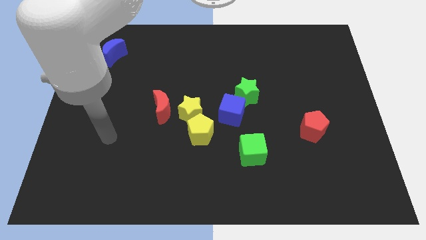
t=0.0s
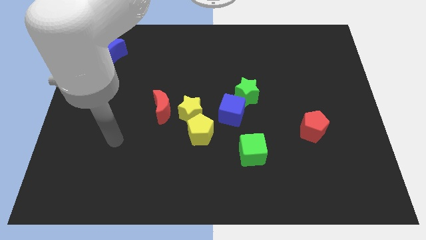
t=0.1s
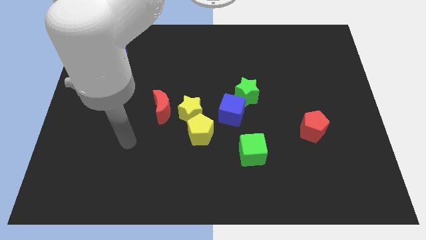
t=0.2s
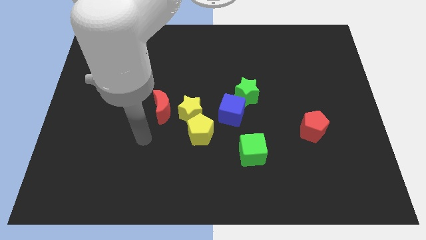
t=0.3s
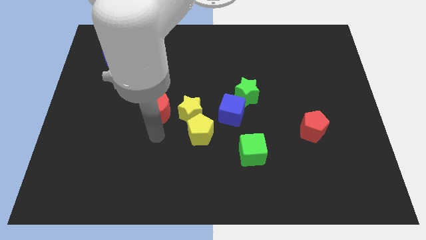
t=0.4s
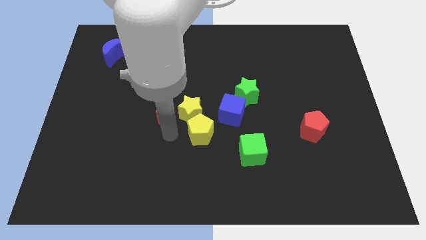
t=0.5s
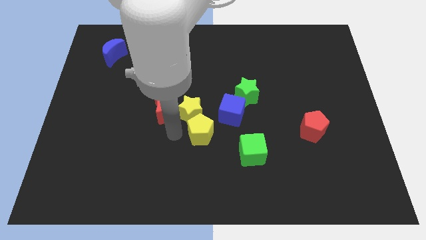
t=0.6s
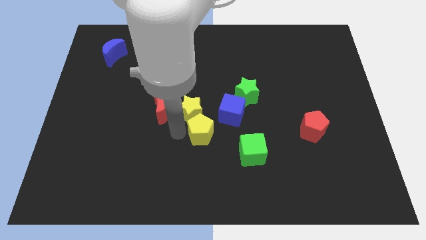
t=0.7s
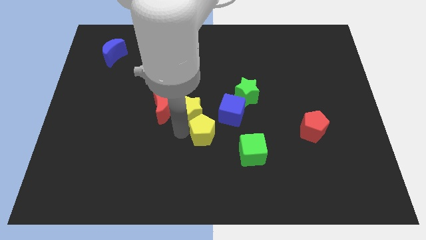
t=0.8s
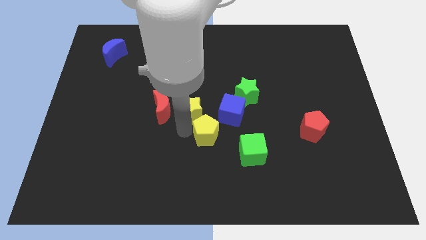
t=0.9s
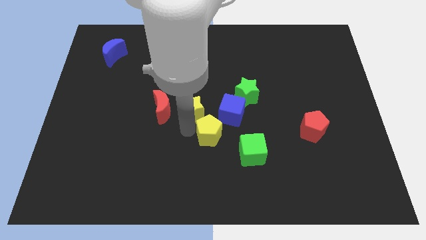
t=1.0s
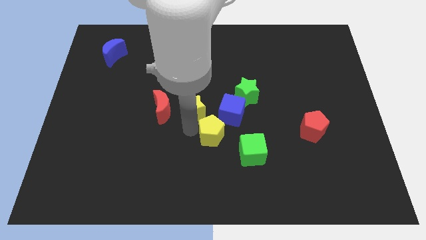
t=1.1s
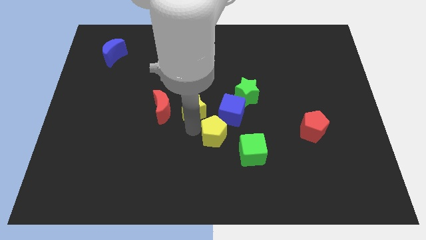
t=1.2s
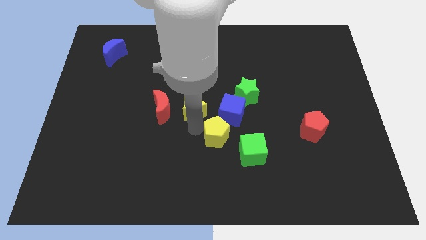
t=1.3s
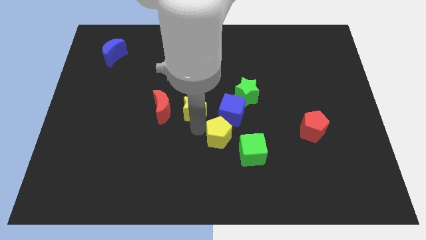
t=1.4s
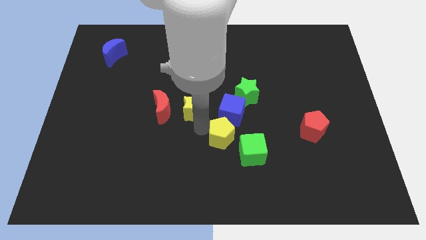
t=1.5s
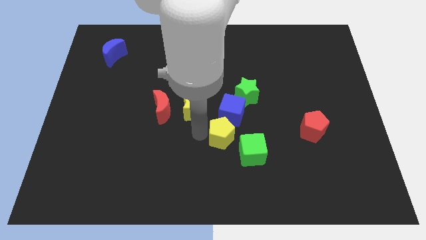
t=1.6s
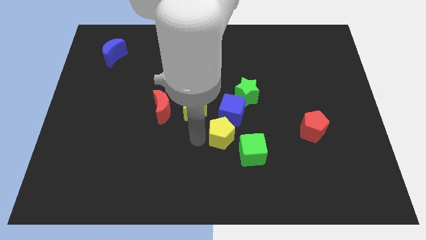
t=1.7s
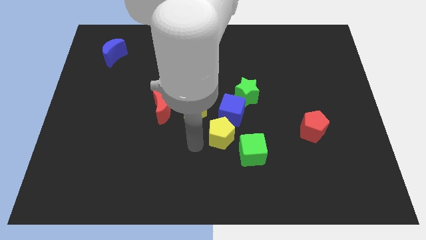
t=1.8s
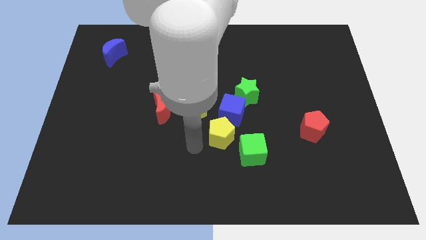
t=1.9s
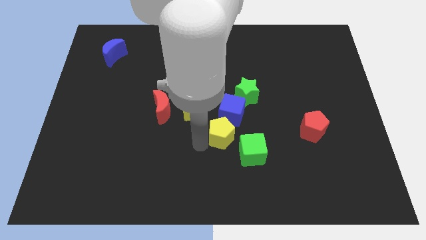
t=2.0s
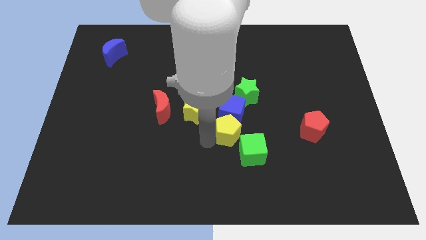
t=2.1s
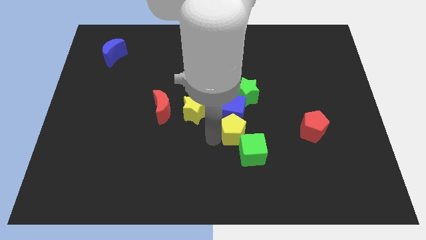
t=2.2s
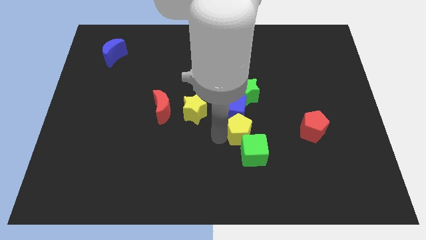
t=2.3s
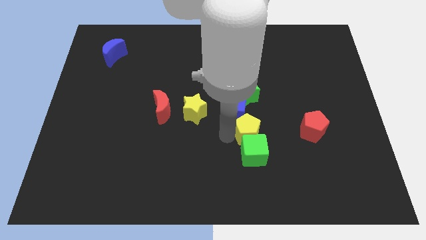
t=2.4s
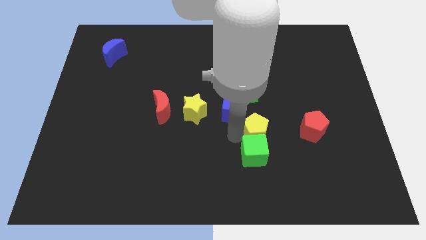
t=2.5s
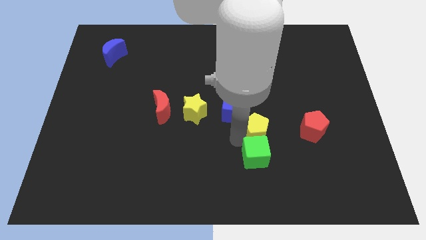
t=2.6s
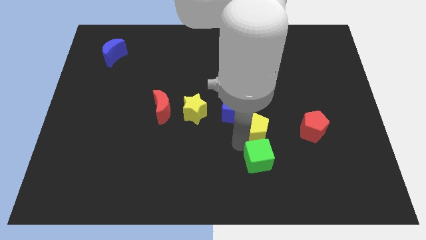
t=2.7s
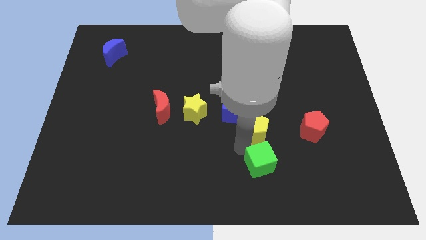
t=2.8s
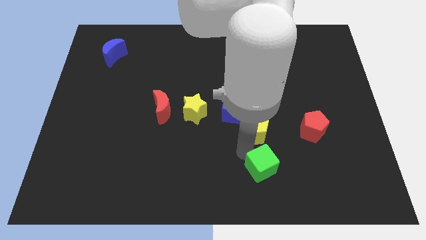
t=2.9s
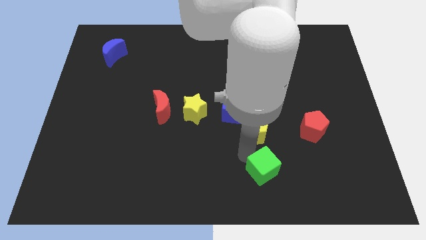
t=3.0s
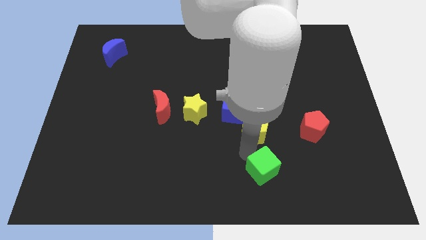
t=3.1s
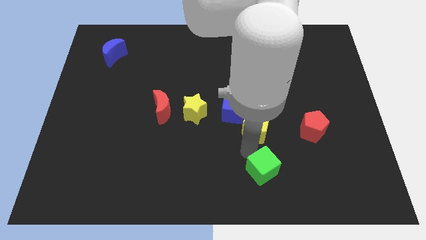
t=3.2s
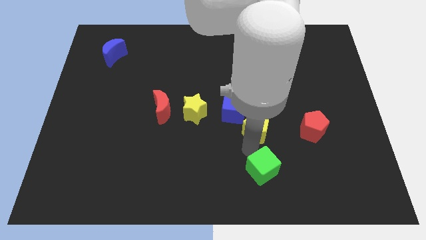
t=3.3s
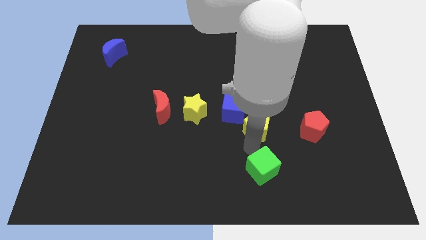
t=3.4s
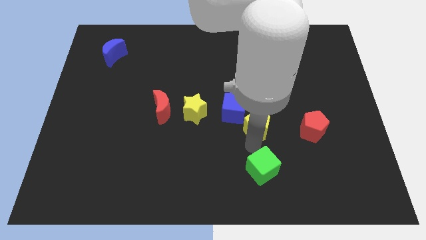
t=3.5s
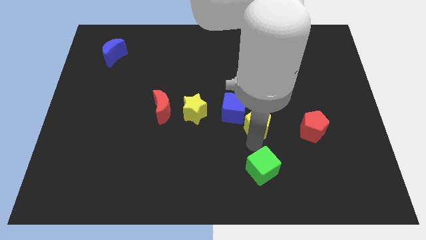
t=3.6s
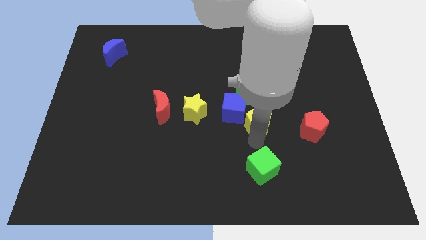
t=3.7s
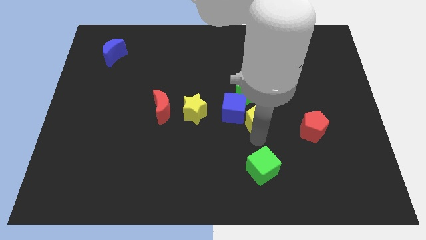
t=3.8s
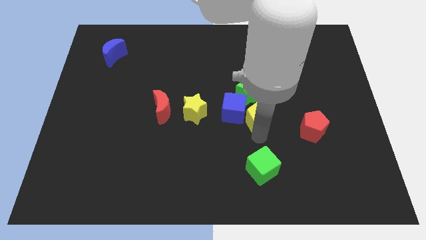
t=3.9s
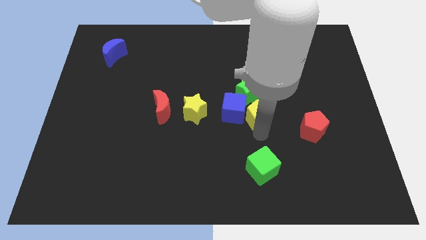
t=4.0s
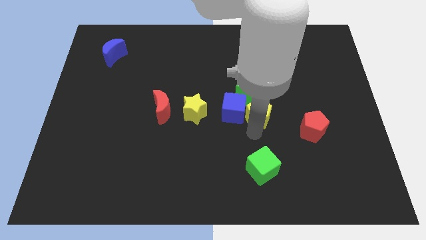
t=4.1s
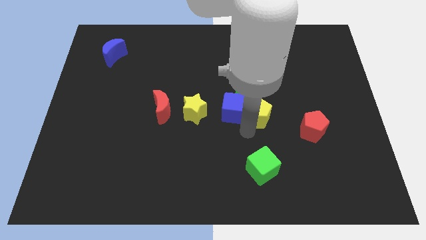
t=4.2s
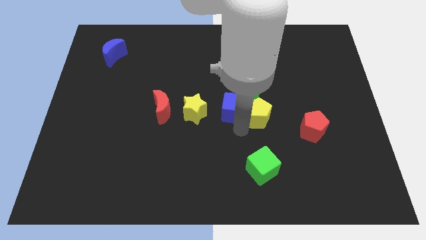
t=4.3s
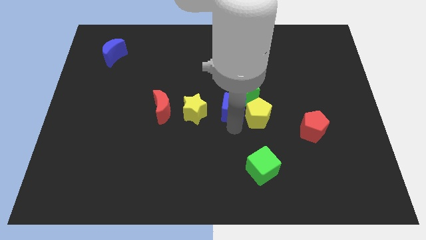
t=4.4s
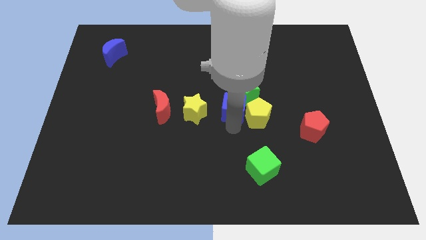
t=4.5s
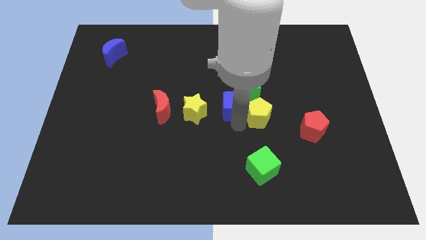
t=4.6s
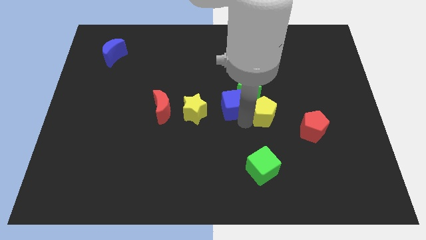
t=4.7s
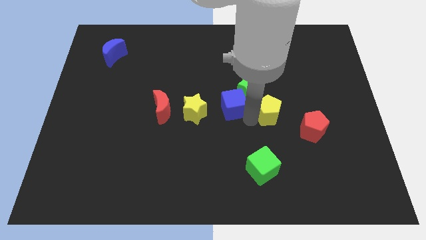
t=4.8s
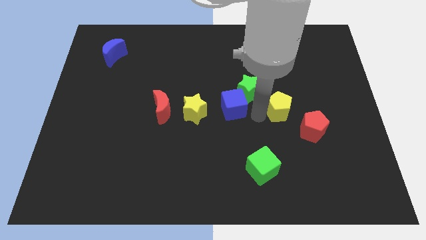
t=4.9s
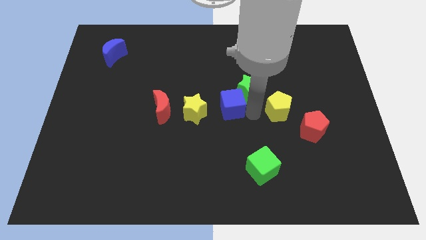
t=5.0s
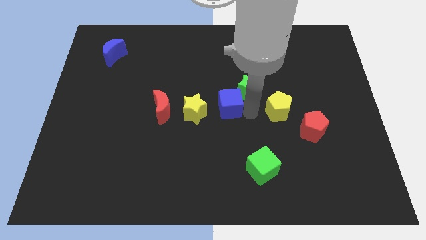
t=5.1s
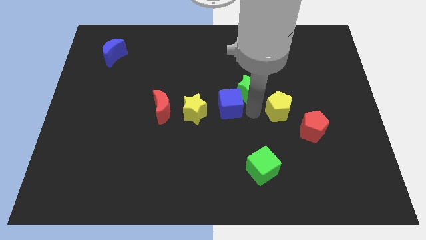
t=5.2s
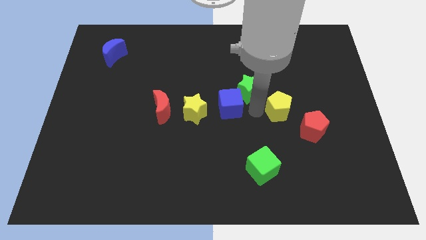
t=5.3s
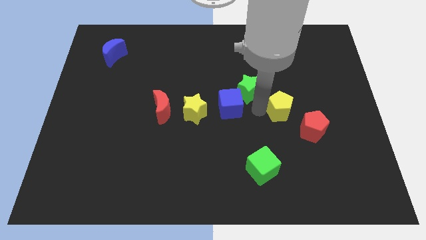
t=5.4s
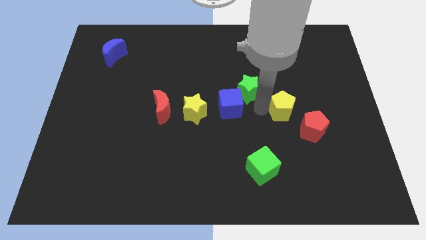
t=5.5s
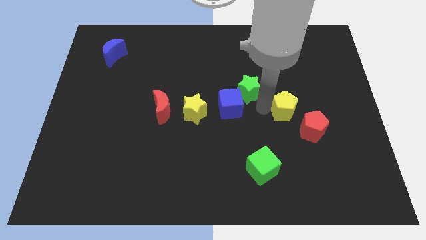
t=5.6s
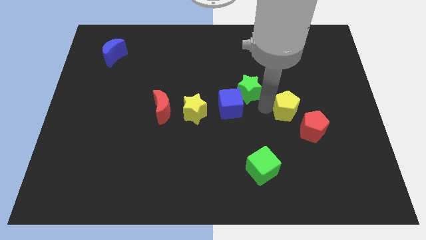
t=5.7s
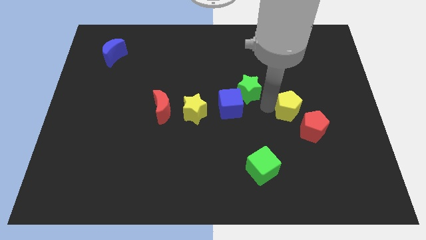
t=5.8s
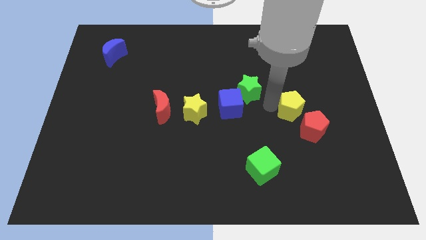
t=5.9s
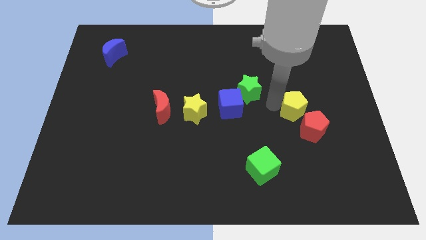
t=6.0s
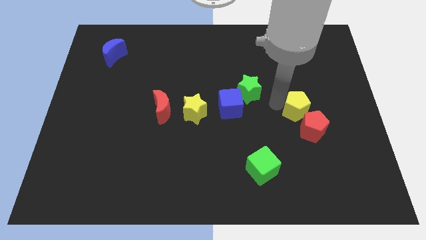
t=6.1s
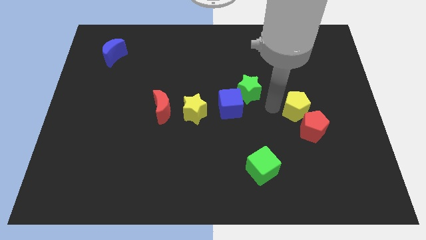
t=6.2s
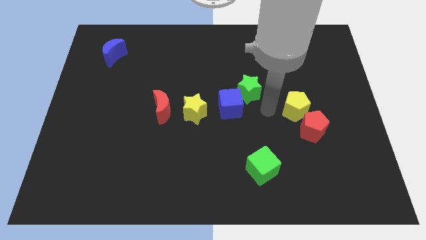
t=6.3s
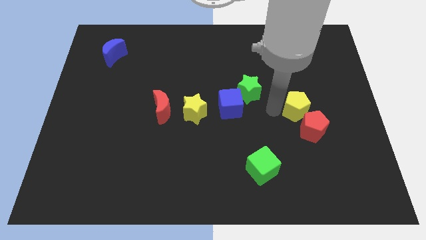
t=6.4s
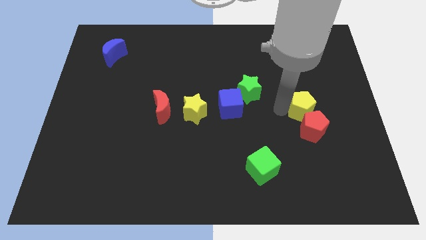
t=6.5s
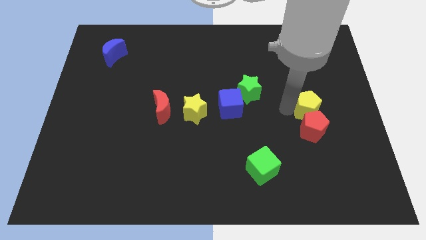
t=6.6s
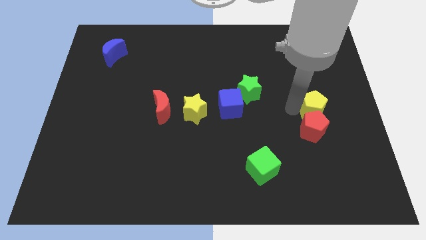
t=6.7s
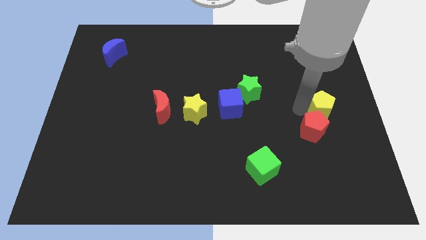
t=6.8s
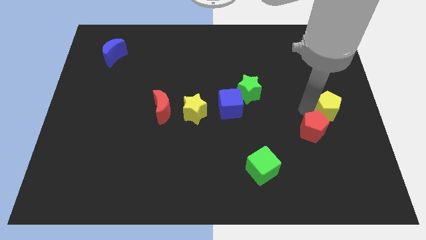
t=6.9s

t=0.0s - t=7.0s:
push the yellow pentagon to the right side of the board
